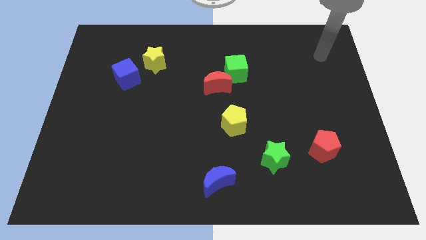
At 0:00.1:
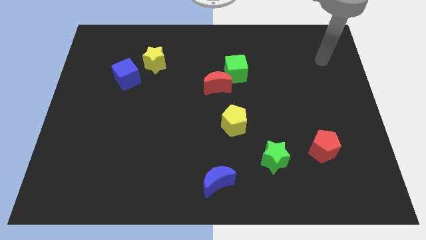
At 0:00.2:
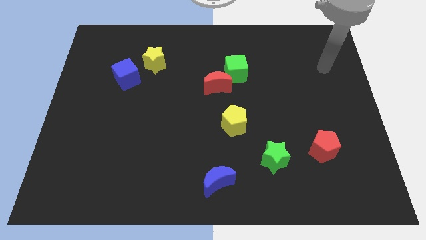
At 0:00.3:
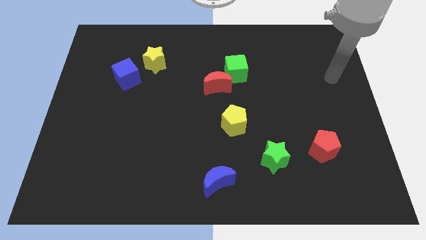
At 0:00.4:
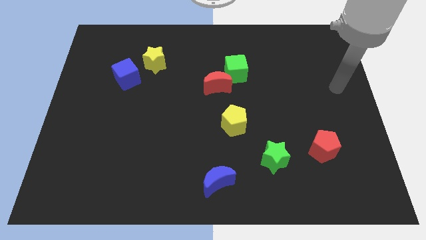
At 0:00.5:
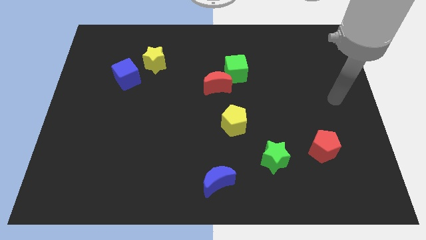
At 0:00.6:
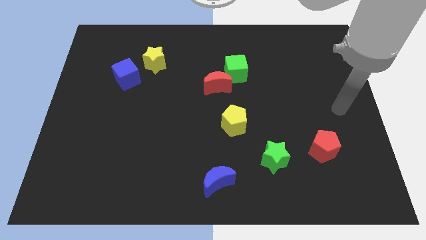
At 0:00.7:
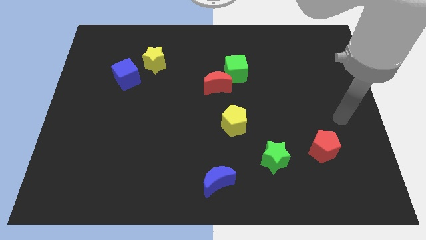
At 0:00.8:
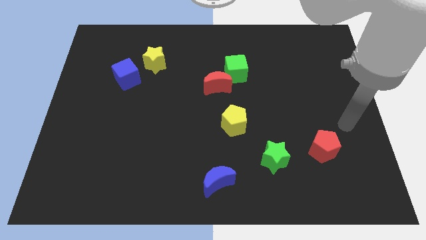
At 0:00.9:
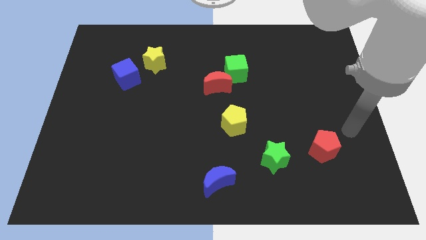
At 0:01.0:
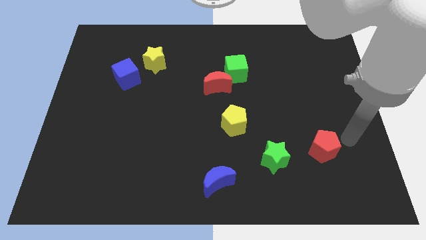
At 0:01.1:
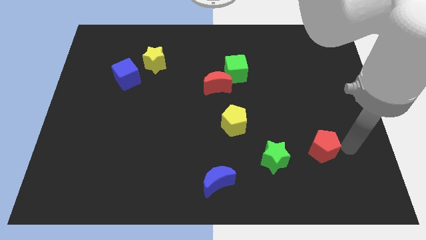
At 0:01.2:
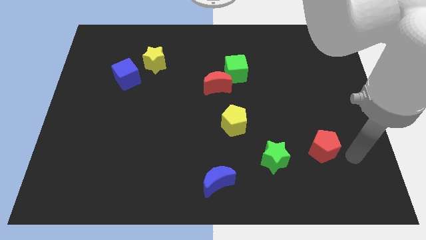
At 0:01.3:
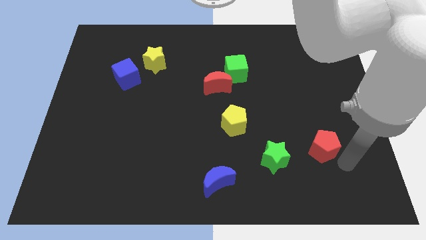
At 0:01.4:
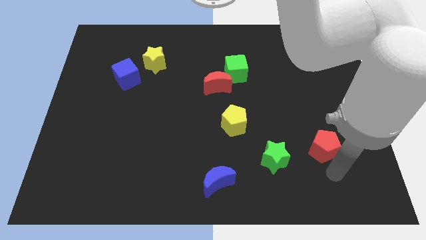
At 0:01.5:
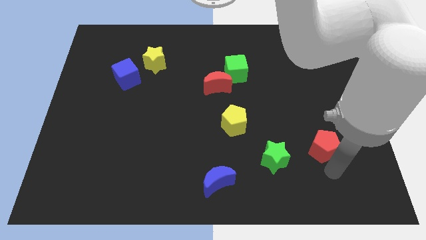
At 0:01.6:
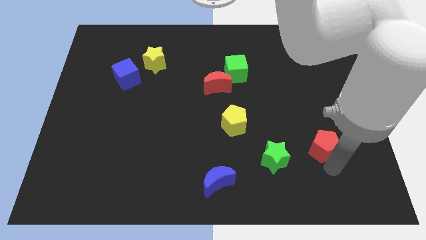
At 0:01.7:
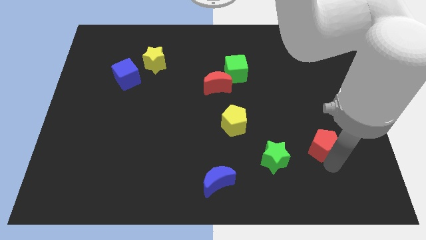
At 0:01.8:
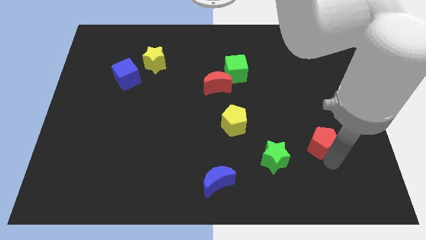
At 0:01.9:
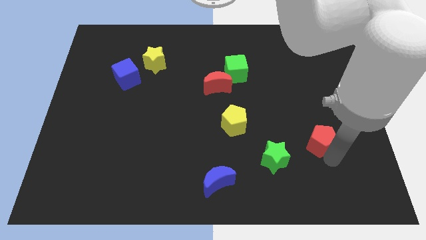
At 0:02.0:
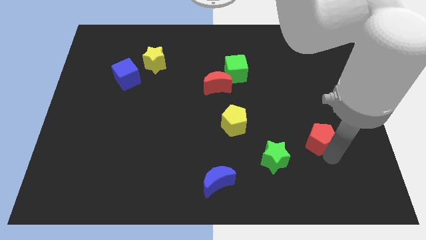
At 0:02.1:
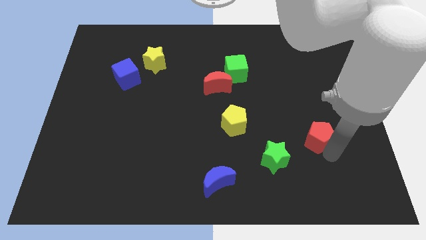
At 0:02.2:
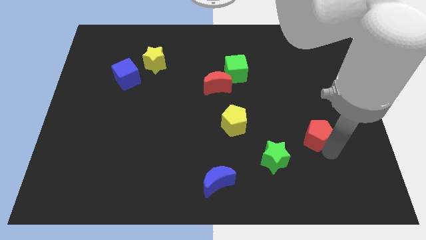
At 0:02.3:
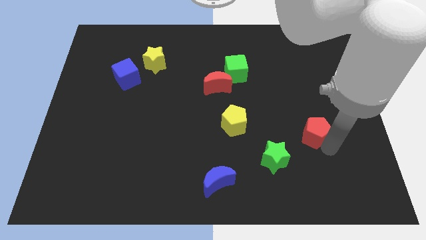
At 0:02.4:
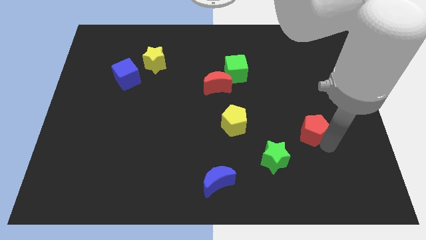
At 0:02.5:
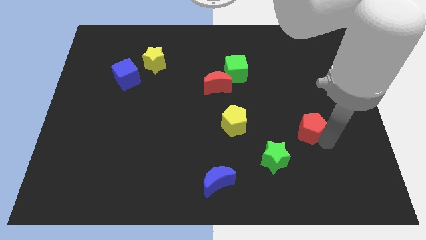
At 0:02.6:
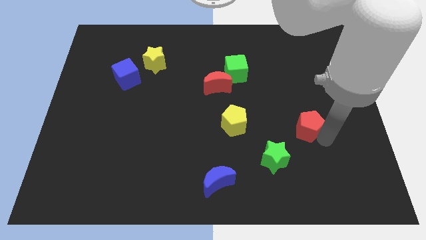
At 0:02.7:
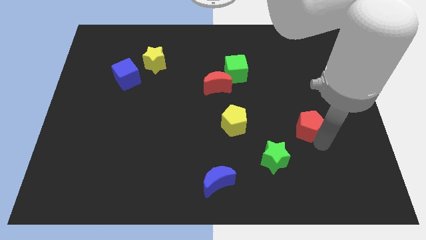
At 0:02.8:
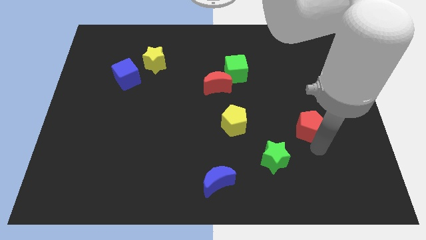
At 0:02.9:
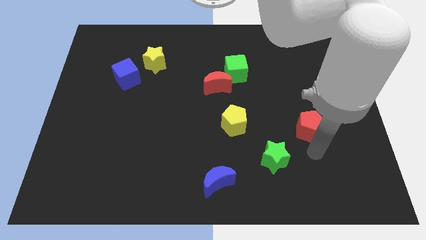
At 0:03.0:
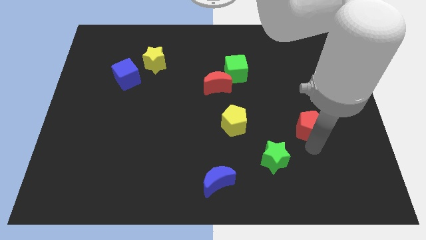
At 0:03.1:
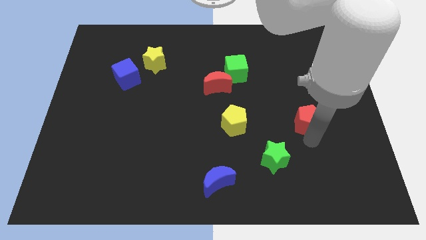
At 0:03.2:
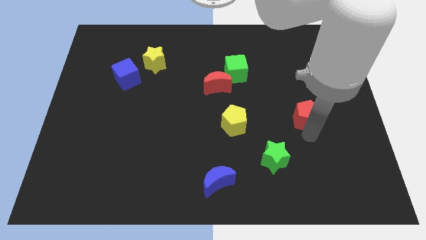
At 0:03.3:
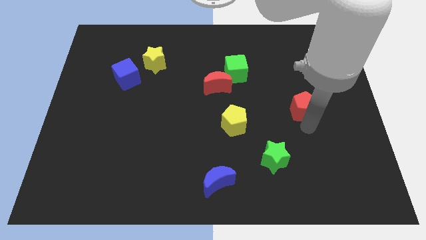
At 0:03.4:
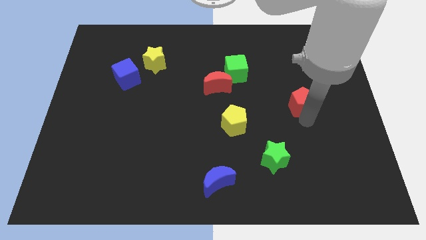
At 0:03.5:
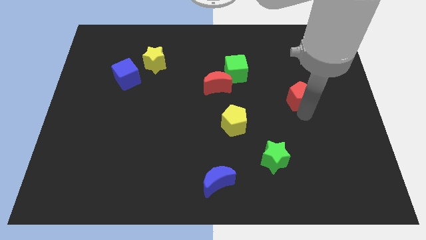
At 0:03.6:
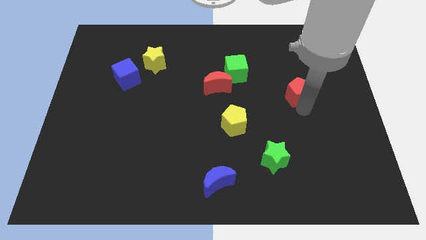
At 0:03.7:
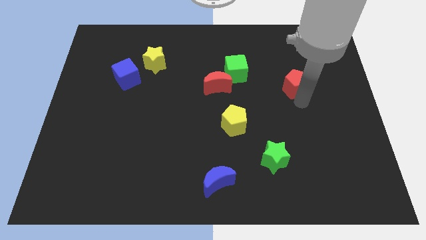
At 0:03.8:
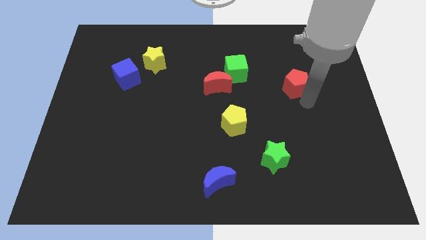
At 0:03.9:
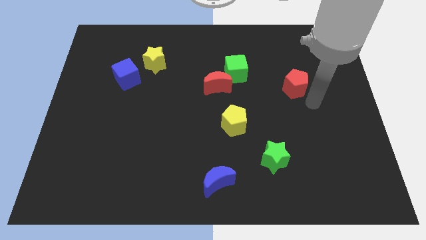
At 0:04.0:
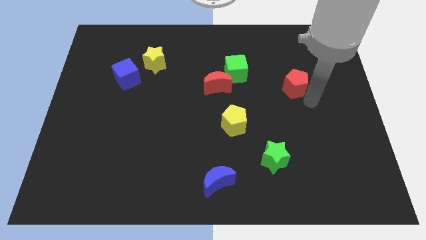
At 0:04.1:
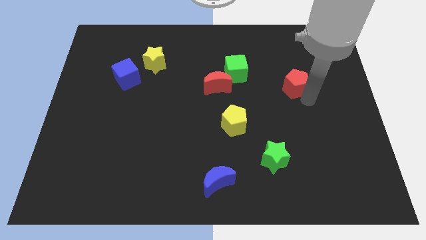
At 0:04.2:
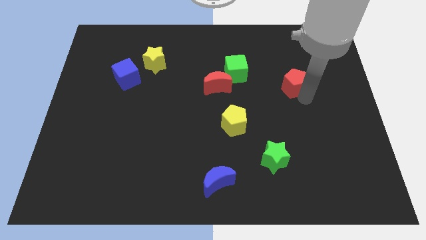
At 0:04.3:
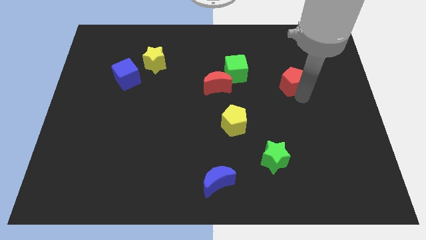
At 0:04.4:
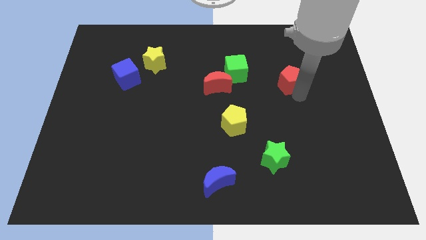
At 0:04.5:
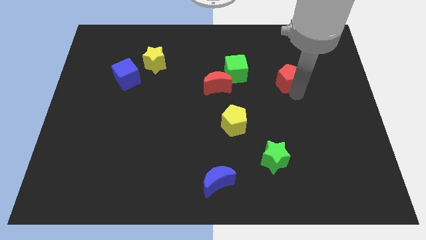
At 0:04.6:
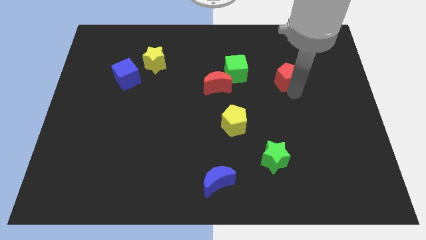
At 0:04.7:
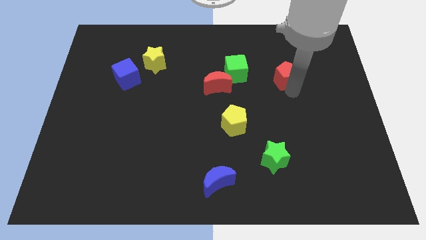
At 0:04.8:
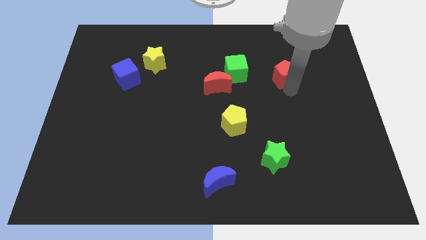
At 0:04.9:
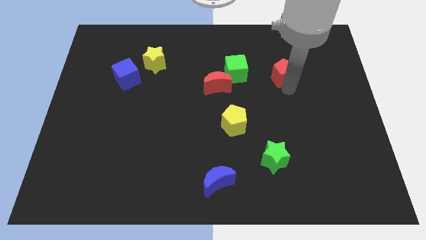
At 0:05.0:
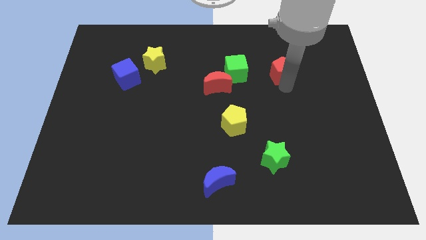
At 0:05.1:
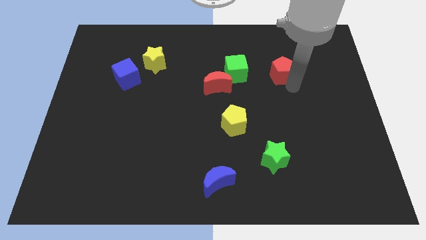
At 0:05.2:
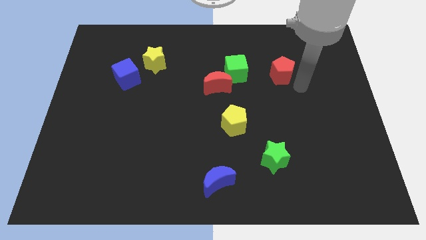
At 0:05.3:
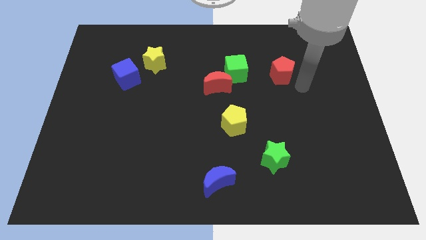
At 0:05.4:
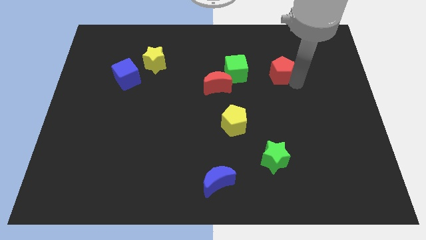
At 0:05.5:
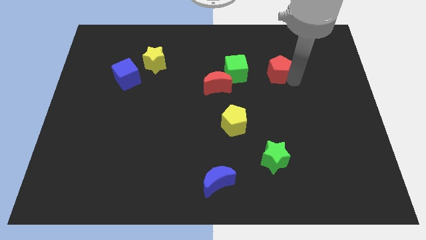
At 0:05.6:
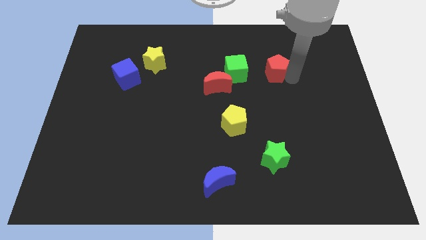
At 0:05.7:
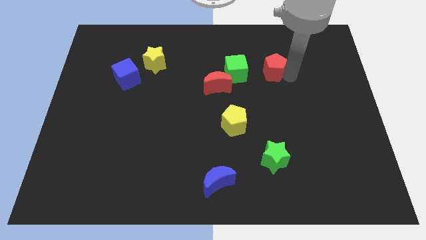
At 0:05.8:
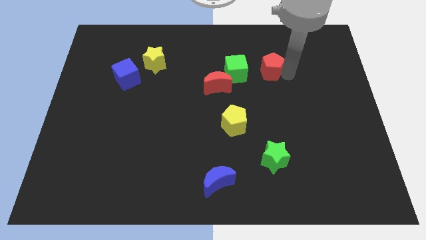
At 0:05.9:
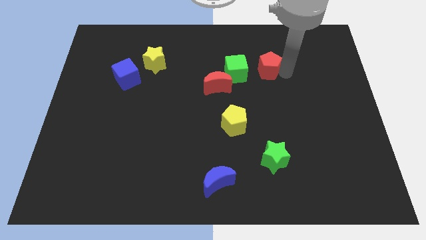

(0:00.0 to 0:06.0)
put the red pentagon diagonally up and to the right of the green cube

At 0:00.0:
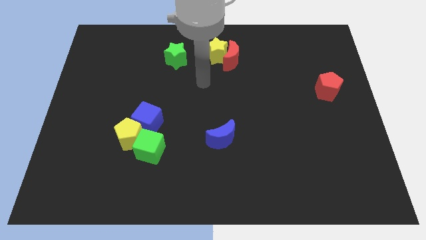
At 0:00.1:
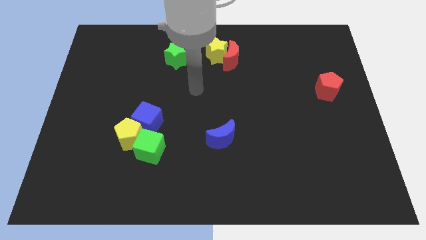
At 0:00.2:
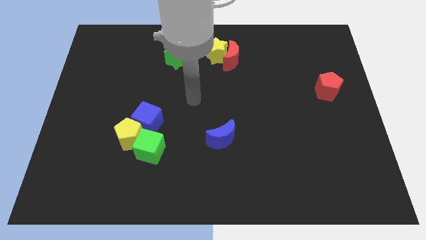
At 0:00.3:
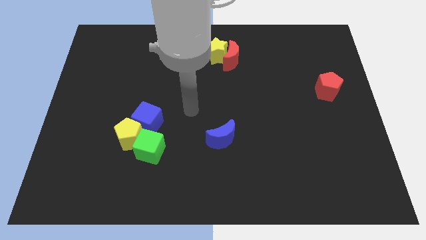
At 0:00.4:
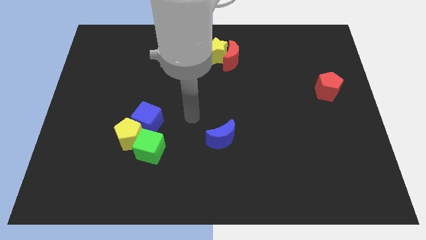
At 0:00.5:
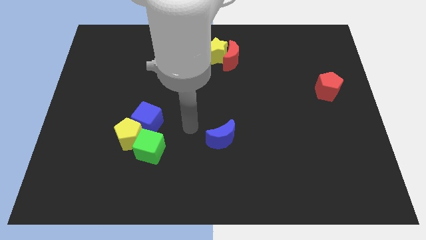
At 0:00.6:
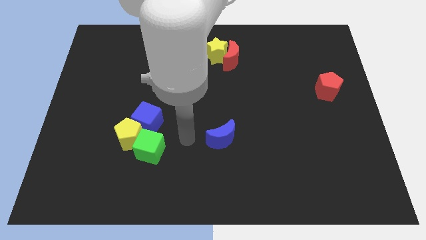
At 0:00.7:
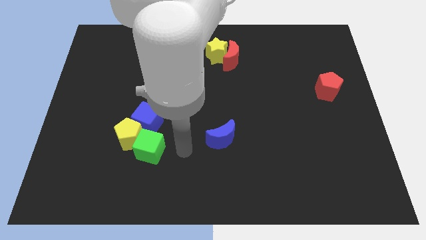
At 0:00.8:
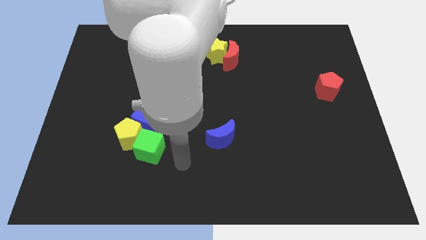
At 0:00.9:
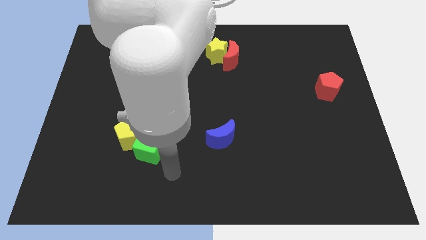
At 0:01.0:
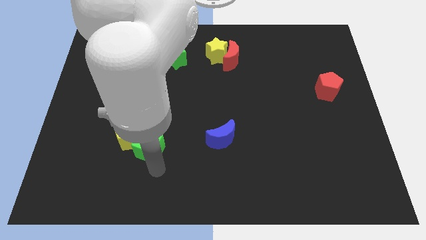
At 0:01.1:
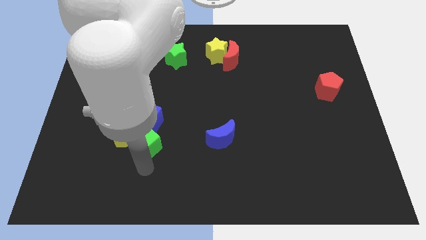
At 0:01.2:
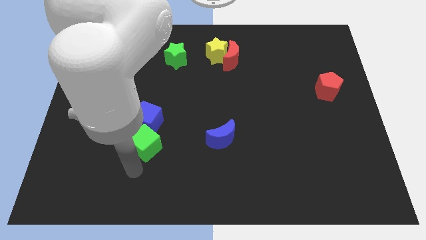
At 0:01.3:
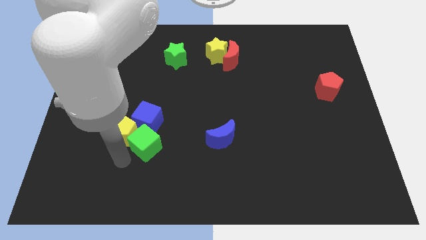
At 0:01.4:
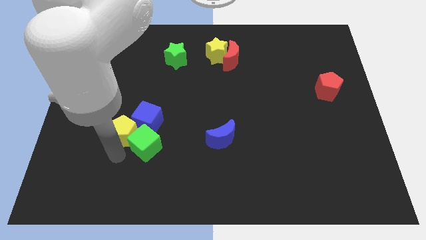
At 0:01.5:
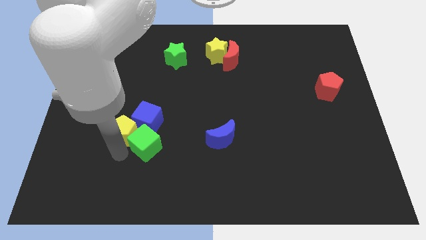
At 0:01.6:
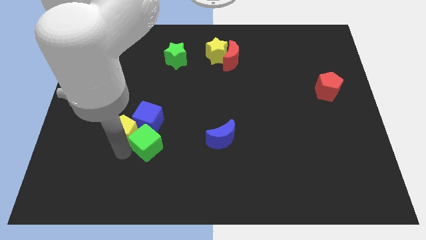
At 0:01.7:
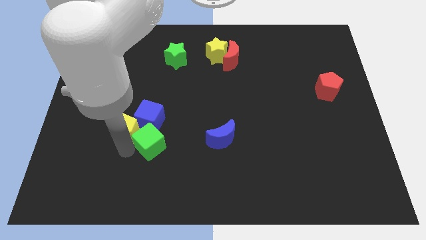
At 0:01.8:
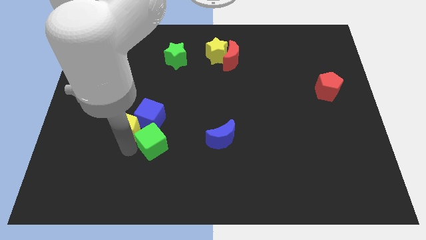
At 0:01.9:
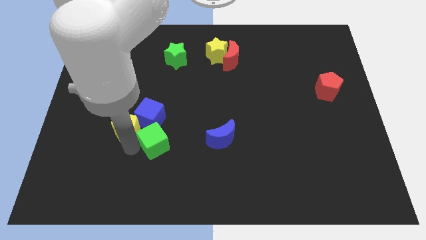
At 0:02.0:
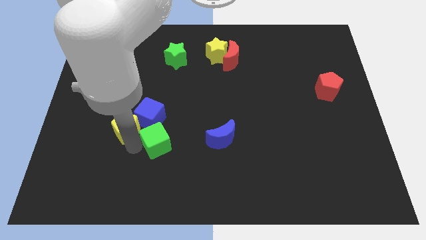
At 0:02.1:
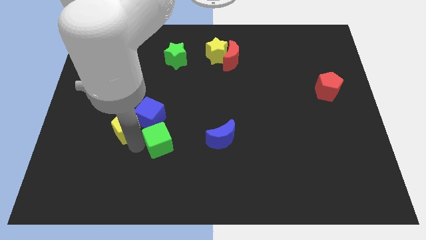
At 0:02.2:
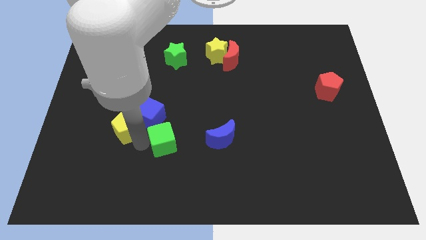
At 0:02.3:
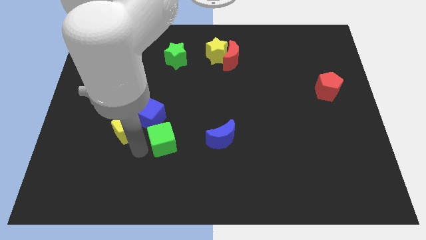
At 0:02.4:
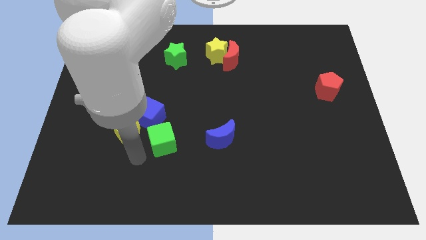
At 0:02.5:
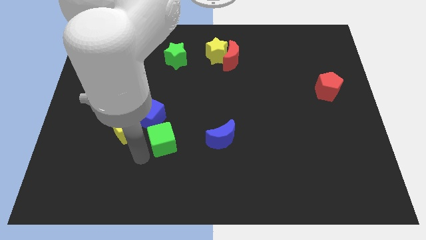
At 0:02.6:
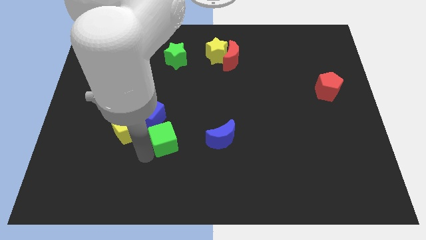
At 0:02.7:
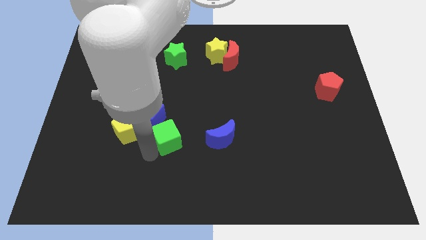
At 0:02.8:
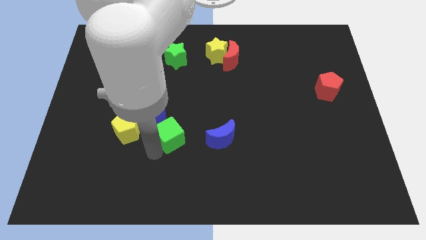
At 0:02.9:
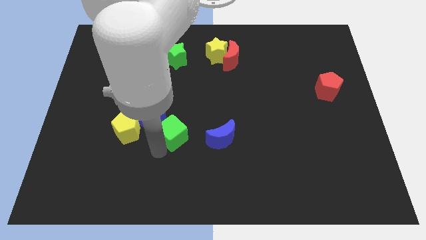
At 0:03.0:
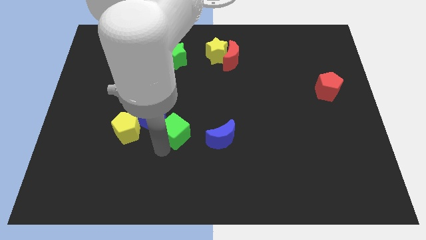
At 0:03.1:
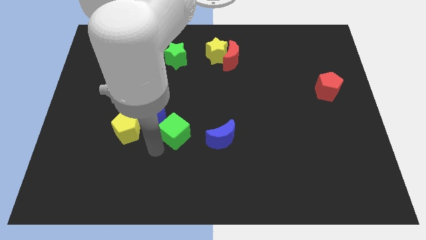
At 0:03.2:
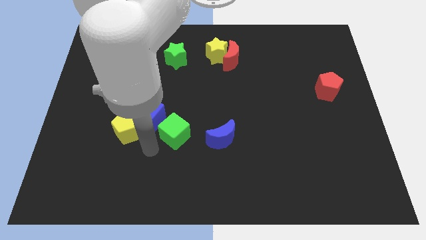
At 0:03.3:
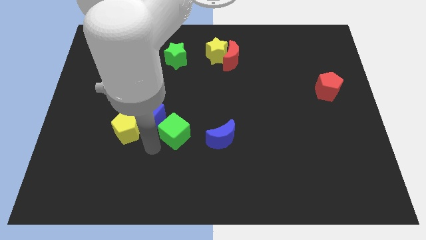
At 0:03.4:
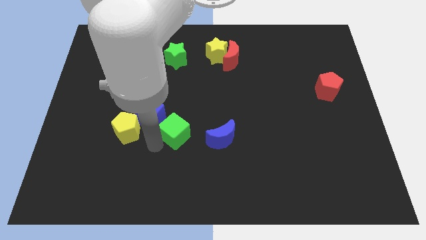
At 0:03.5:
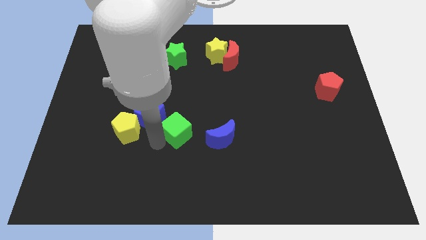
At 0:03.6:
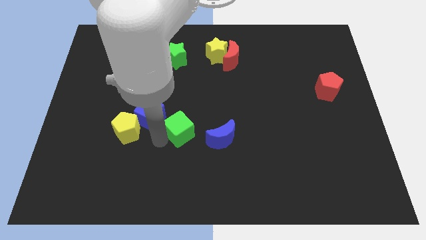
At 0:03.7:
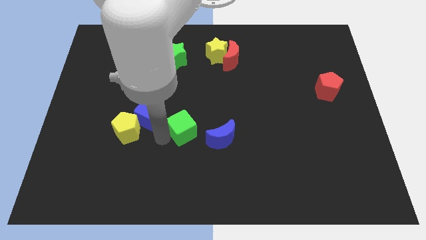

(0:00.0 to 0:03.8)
push the green cube diagonally up and to the left of the blue moon
